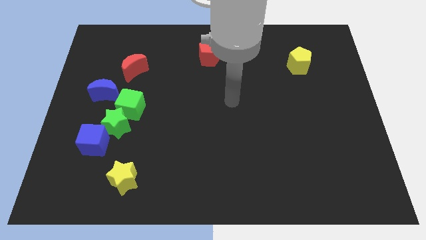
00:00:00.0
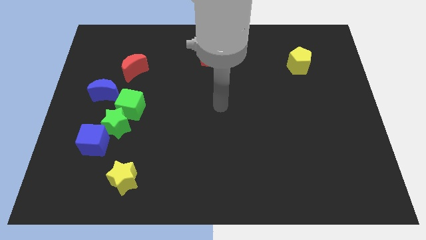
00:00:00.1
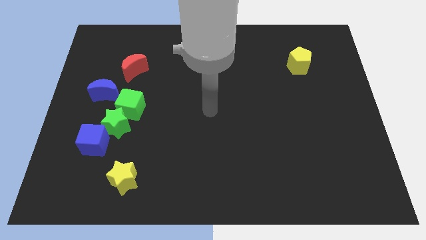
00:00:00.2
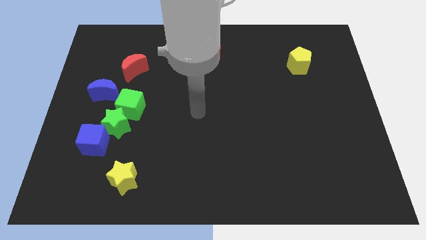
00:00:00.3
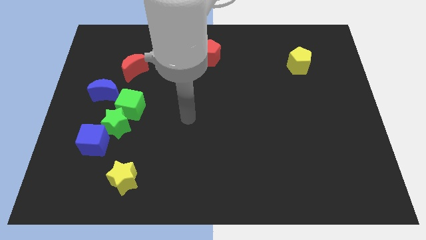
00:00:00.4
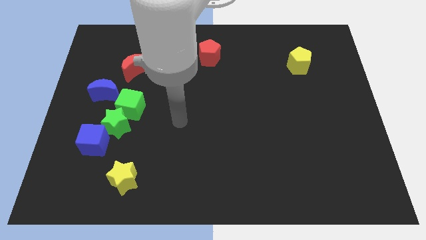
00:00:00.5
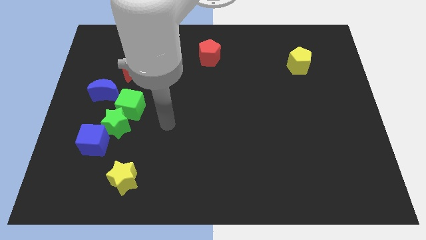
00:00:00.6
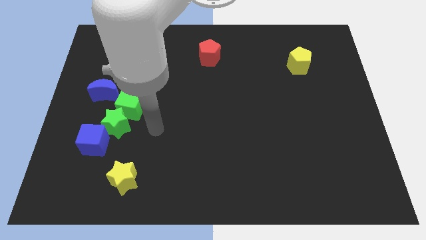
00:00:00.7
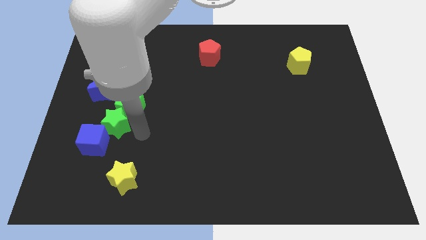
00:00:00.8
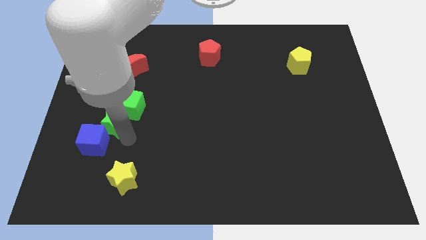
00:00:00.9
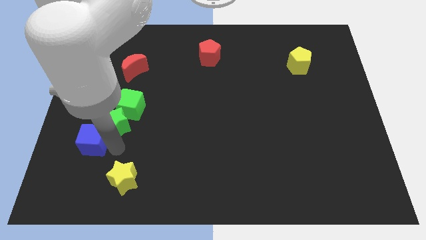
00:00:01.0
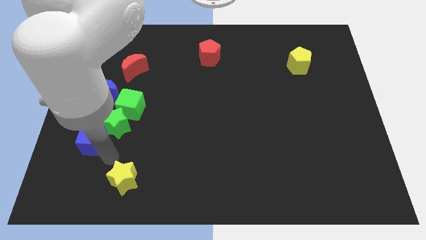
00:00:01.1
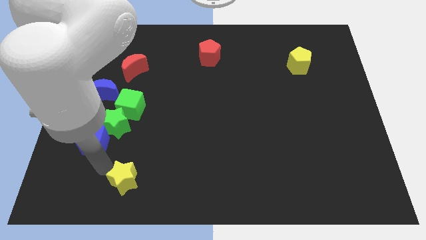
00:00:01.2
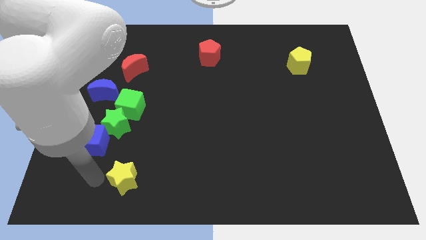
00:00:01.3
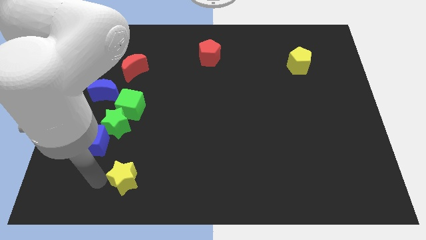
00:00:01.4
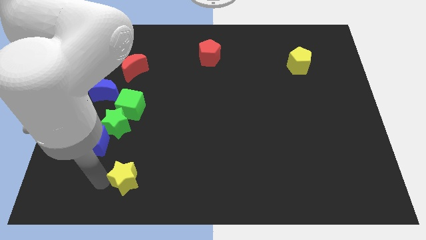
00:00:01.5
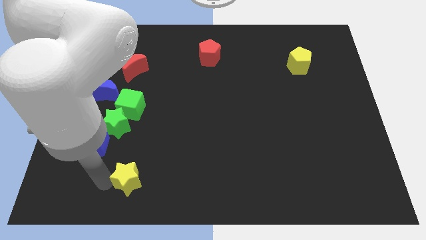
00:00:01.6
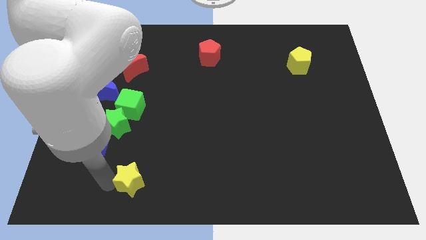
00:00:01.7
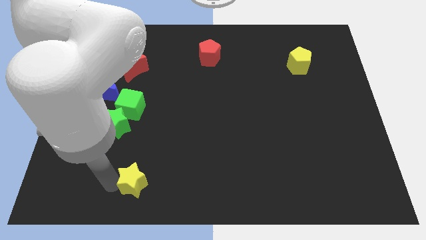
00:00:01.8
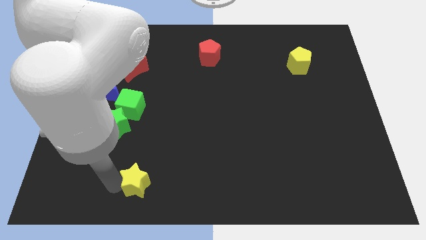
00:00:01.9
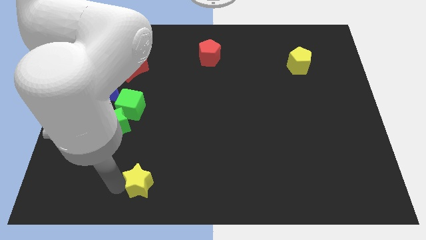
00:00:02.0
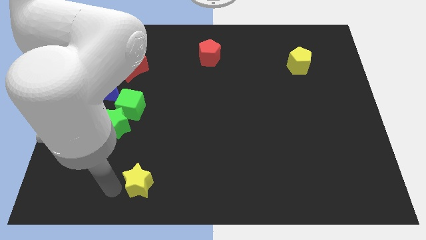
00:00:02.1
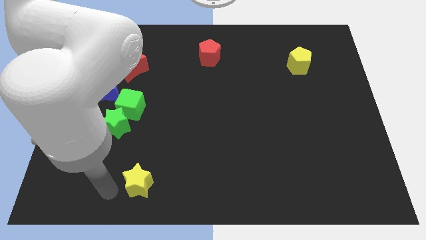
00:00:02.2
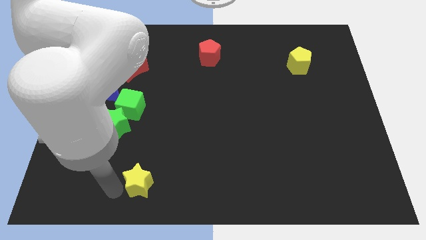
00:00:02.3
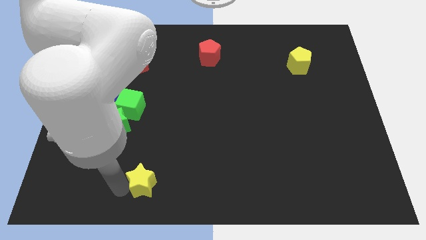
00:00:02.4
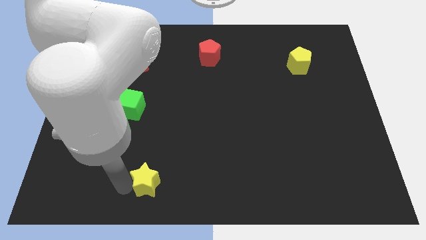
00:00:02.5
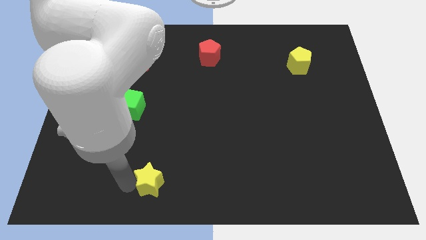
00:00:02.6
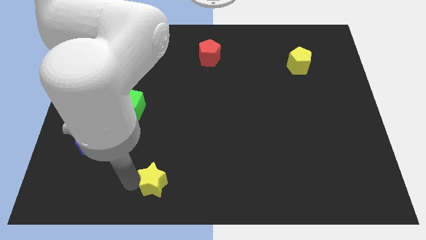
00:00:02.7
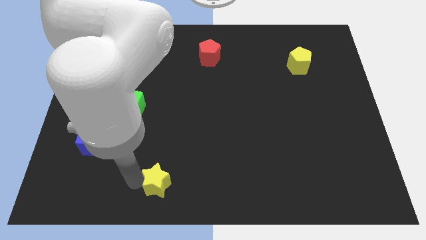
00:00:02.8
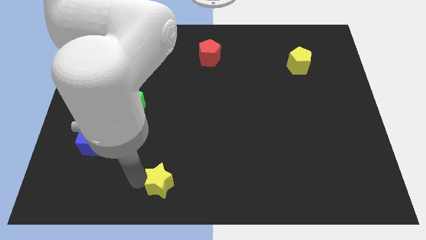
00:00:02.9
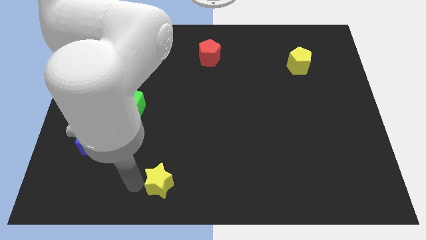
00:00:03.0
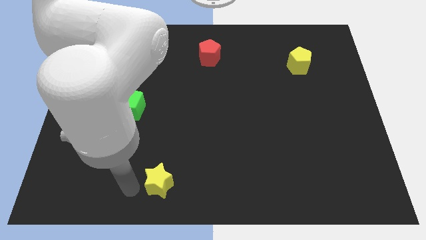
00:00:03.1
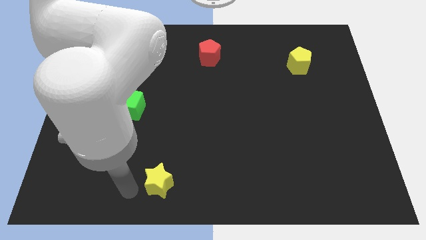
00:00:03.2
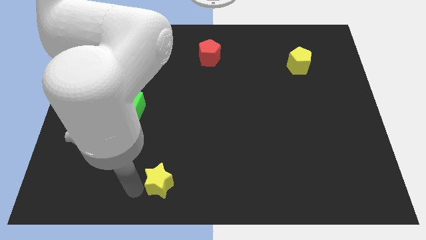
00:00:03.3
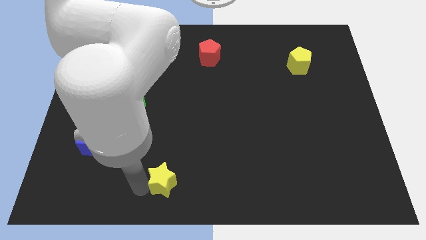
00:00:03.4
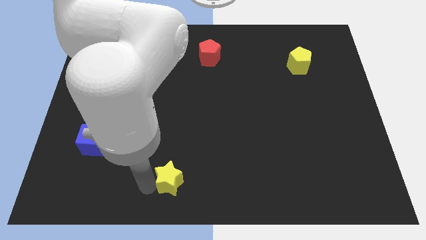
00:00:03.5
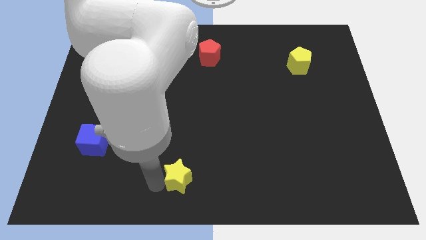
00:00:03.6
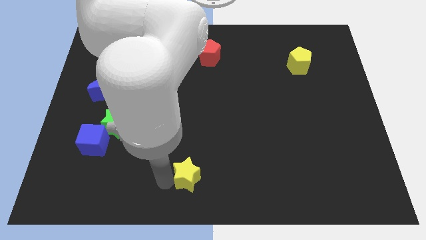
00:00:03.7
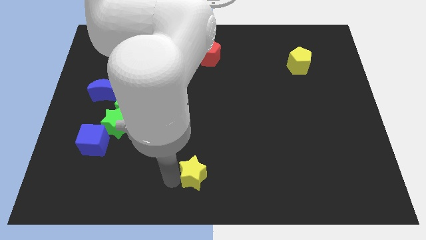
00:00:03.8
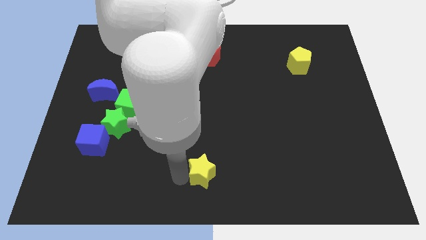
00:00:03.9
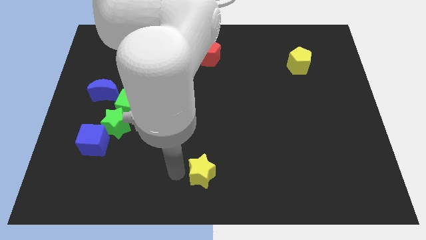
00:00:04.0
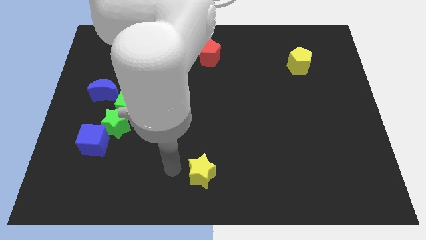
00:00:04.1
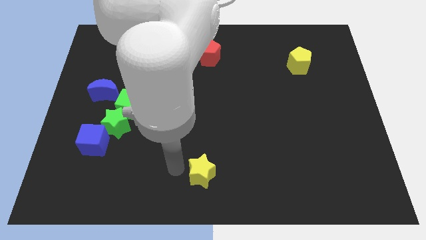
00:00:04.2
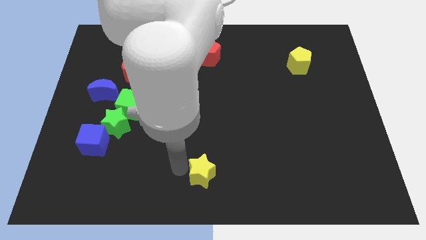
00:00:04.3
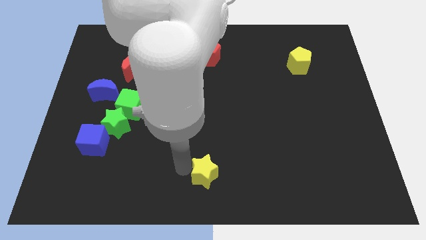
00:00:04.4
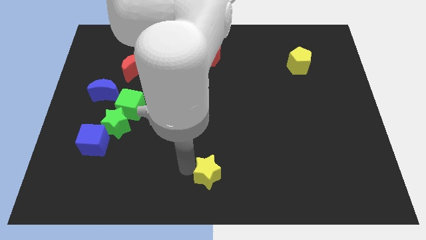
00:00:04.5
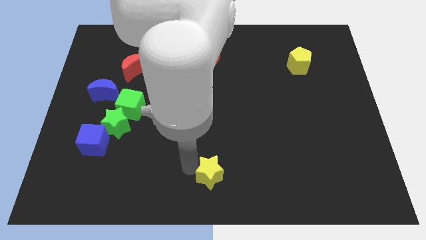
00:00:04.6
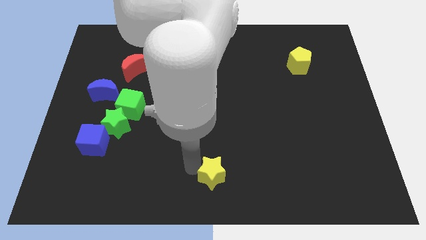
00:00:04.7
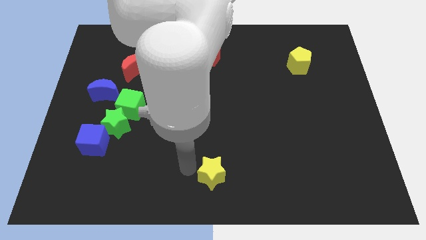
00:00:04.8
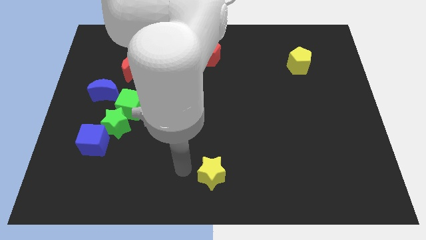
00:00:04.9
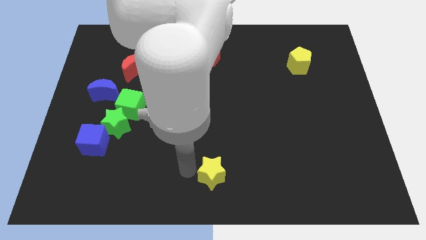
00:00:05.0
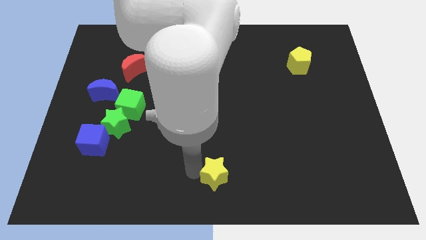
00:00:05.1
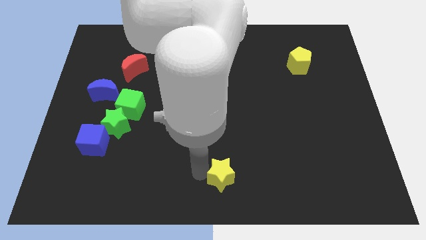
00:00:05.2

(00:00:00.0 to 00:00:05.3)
push the yellow star to the right

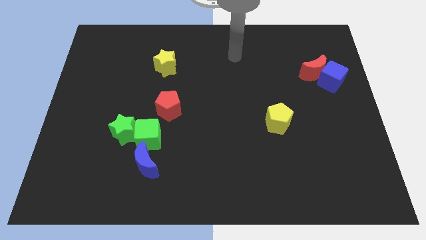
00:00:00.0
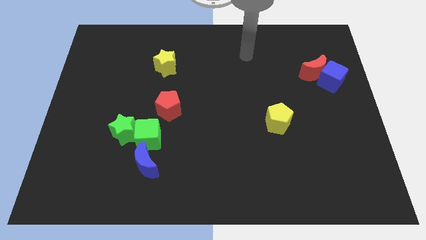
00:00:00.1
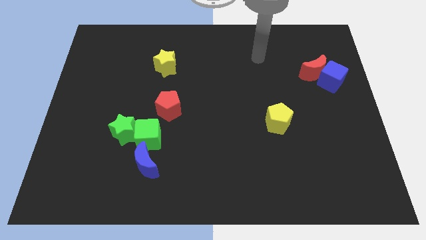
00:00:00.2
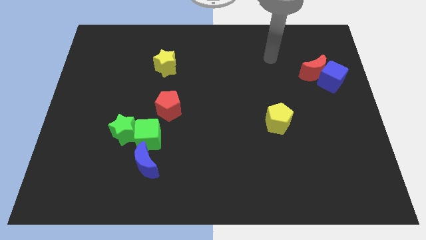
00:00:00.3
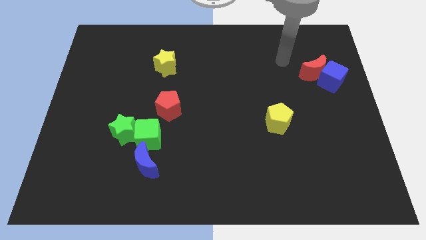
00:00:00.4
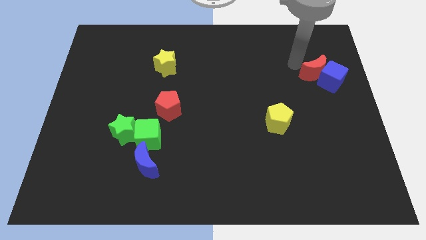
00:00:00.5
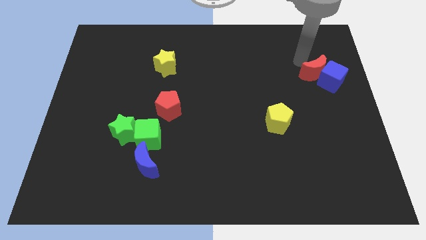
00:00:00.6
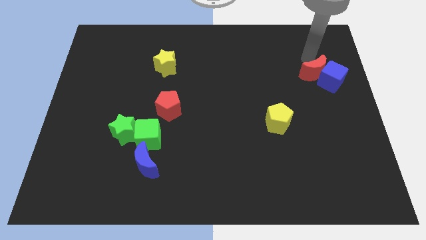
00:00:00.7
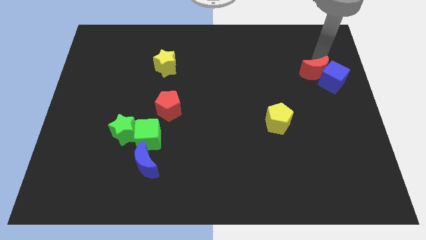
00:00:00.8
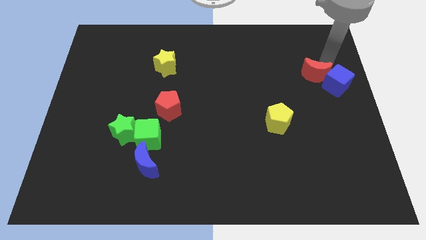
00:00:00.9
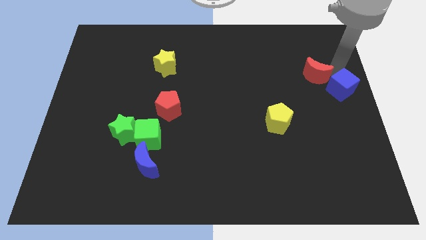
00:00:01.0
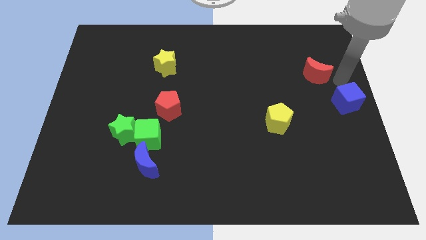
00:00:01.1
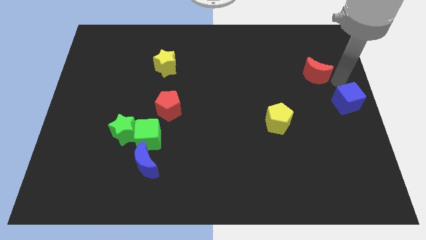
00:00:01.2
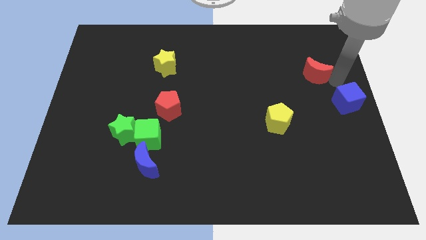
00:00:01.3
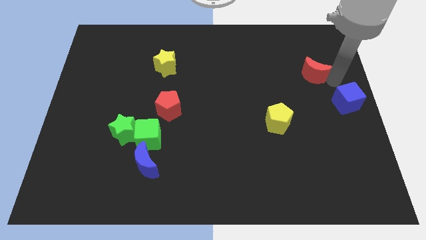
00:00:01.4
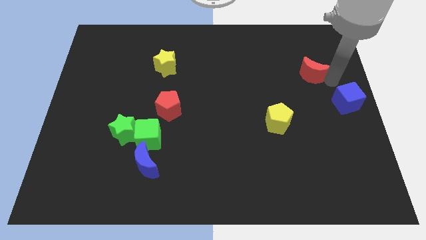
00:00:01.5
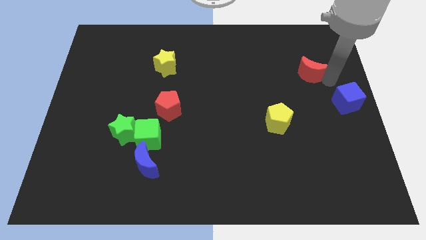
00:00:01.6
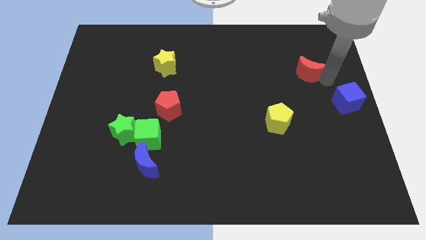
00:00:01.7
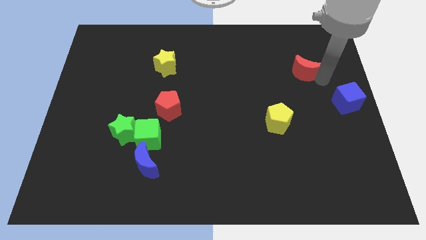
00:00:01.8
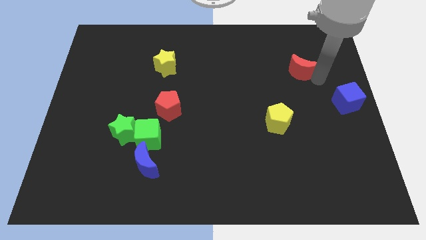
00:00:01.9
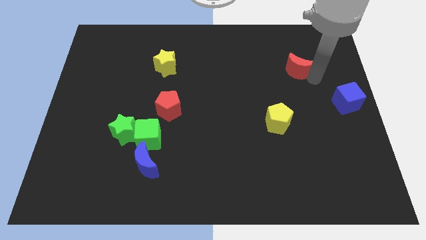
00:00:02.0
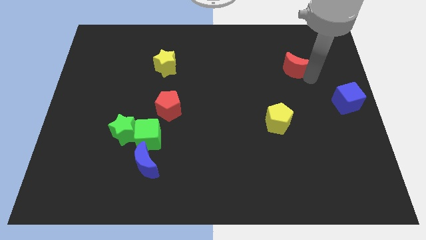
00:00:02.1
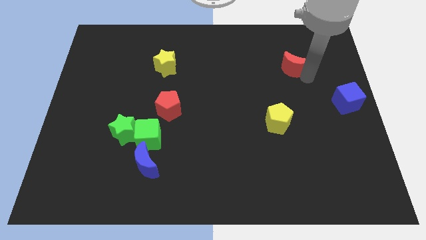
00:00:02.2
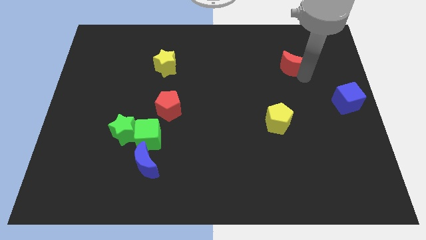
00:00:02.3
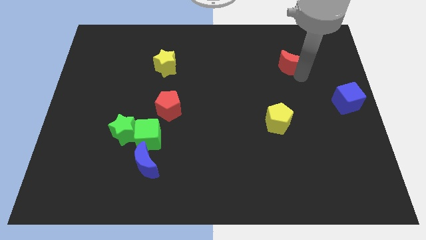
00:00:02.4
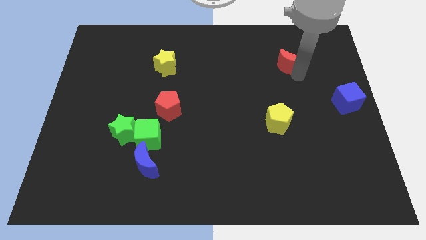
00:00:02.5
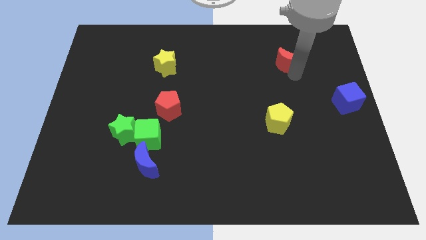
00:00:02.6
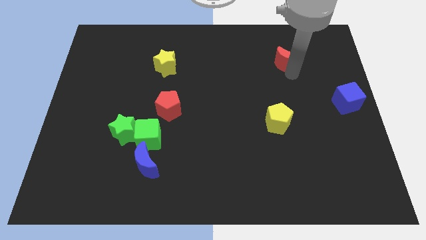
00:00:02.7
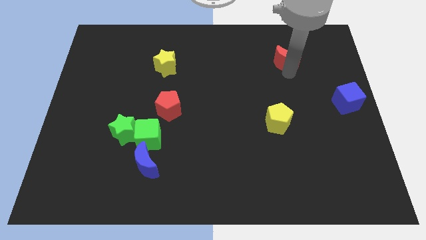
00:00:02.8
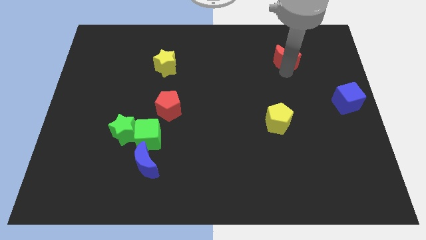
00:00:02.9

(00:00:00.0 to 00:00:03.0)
move the red moon somewhat left
